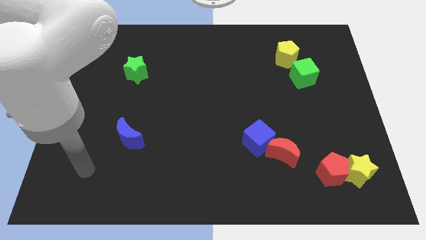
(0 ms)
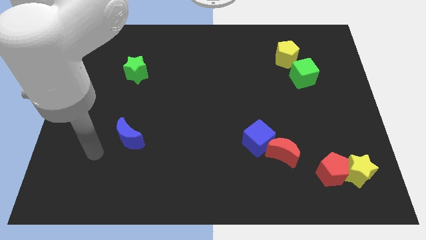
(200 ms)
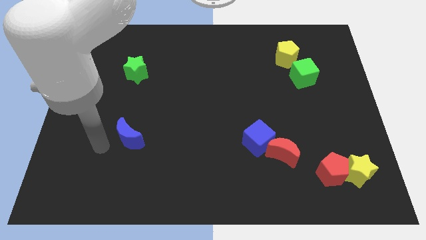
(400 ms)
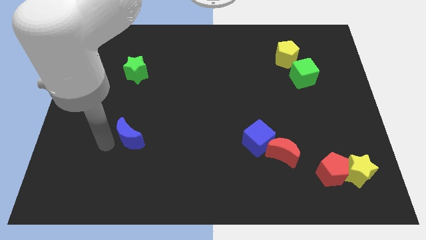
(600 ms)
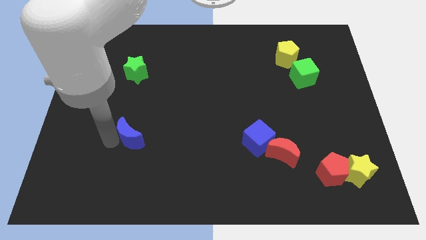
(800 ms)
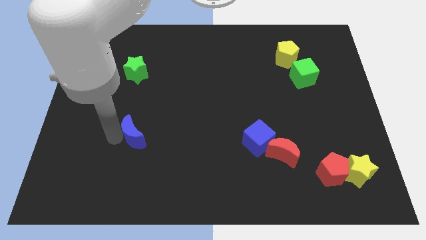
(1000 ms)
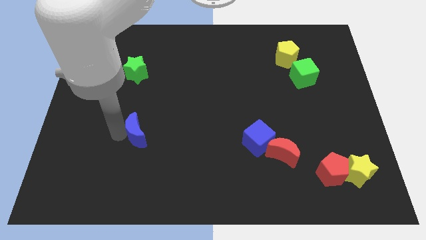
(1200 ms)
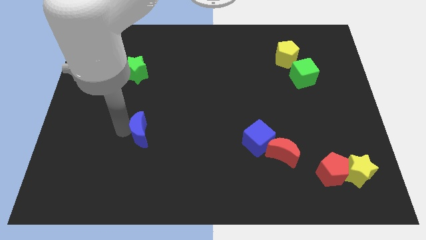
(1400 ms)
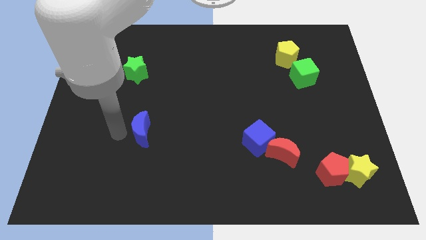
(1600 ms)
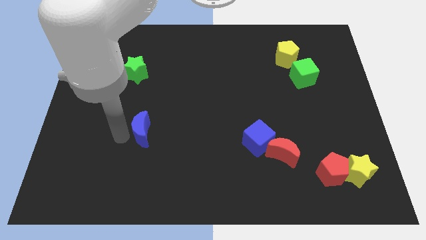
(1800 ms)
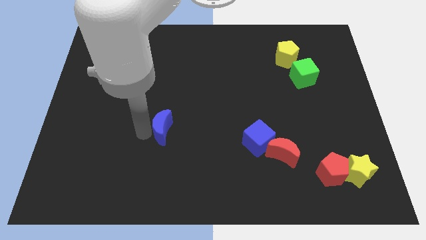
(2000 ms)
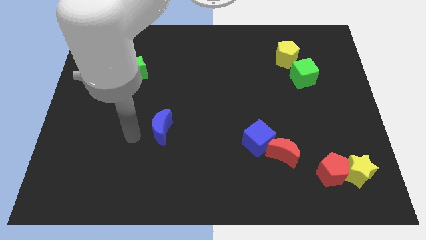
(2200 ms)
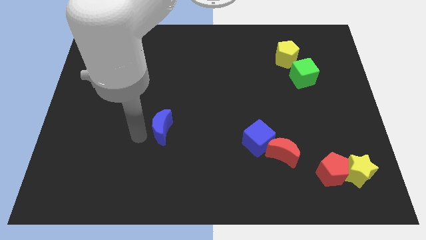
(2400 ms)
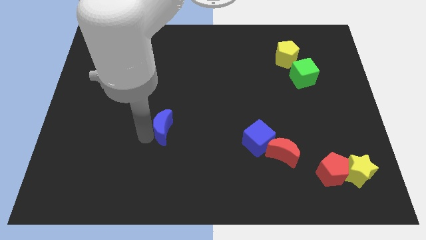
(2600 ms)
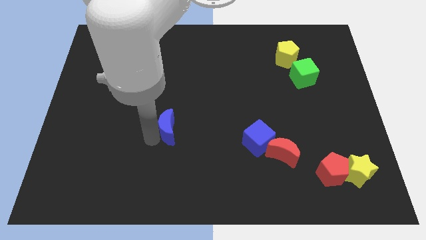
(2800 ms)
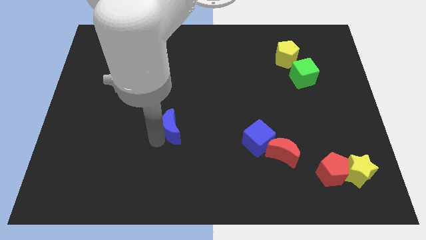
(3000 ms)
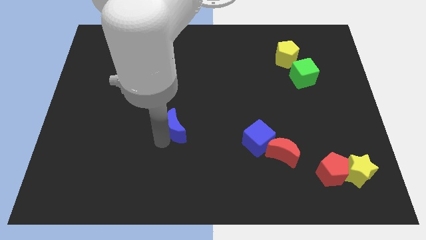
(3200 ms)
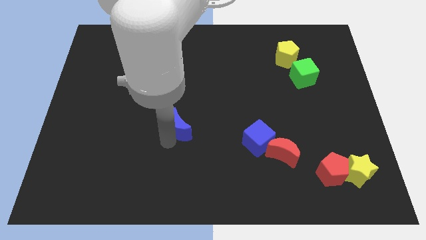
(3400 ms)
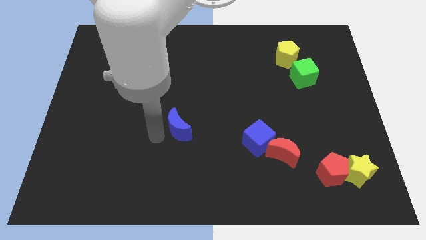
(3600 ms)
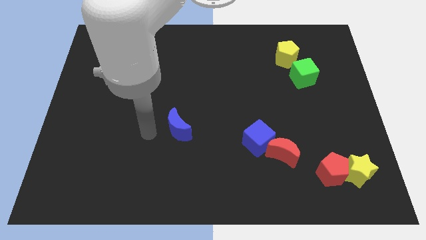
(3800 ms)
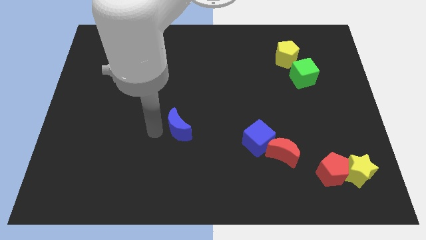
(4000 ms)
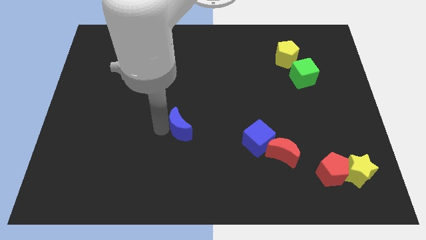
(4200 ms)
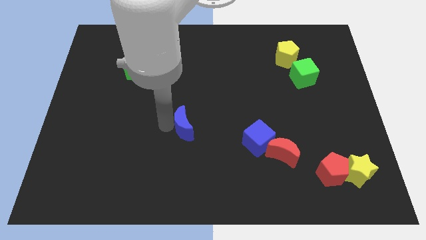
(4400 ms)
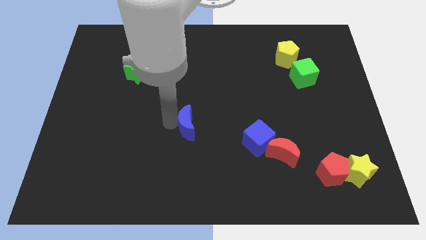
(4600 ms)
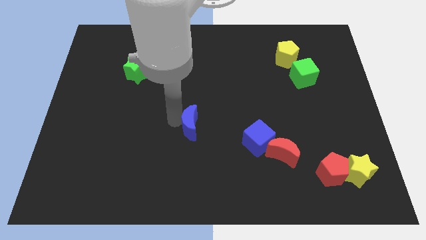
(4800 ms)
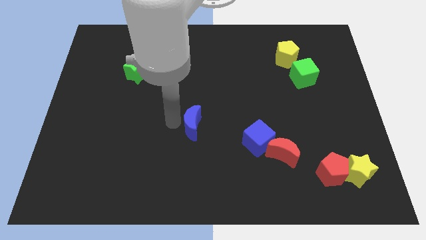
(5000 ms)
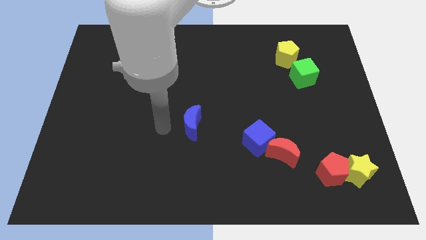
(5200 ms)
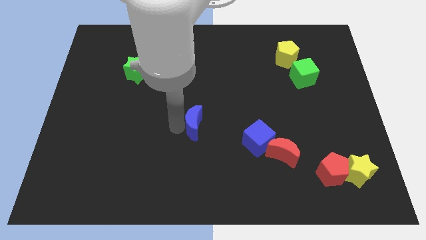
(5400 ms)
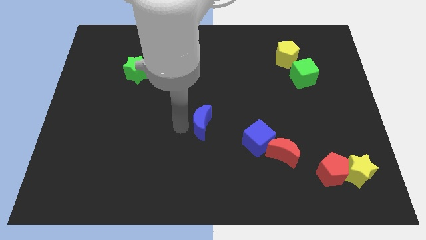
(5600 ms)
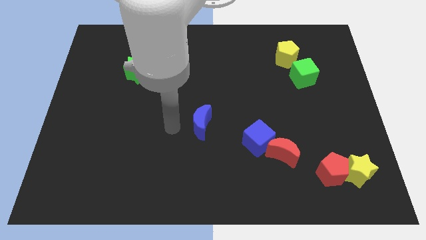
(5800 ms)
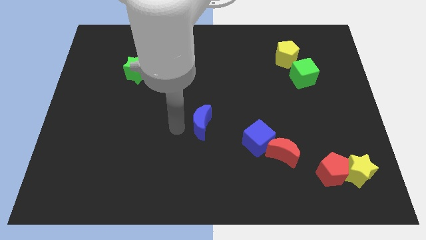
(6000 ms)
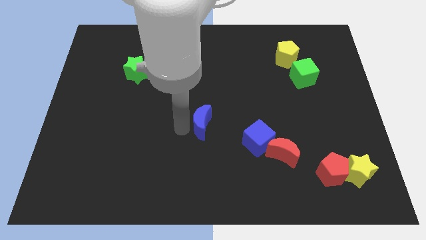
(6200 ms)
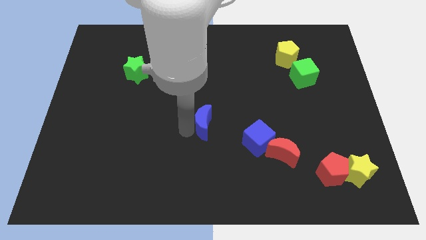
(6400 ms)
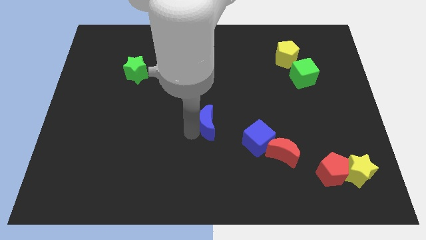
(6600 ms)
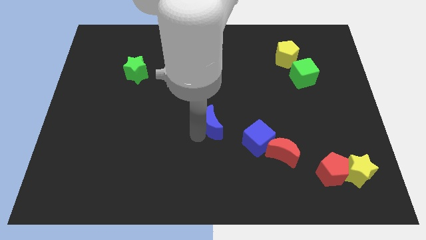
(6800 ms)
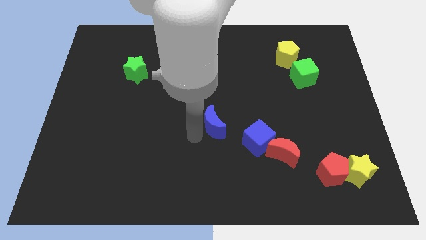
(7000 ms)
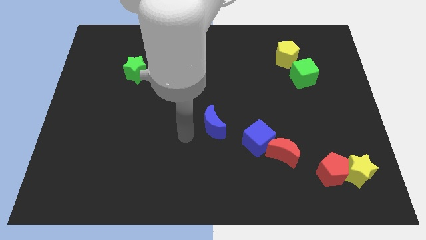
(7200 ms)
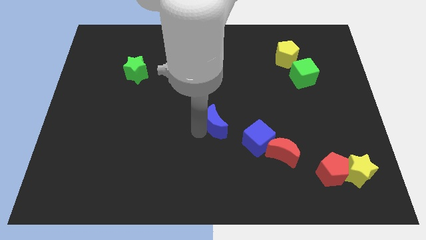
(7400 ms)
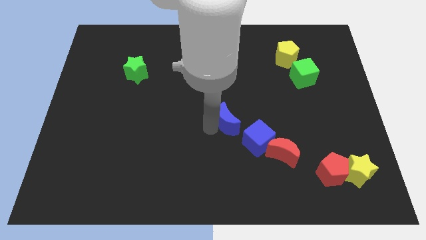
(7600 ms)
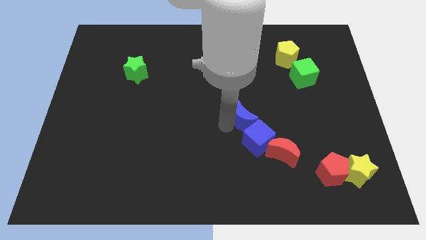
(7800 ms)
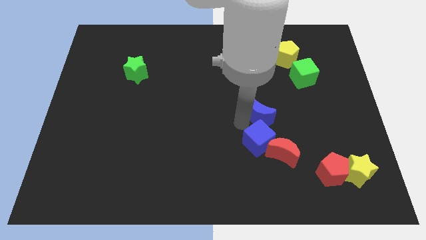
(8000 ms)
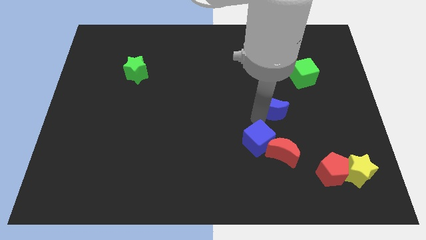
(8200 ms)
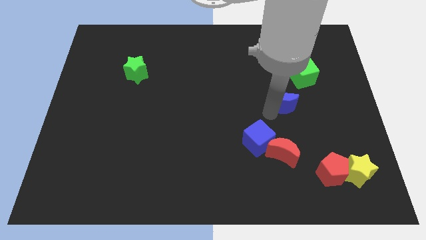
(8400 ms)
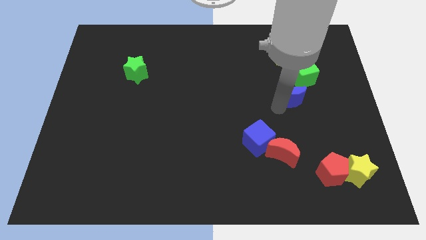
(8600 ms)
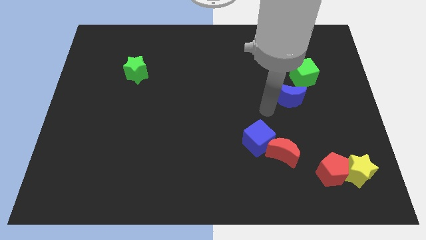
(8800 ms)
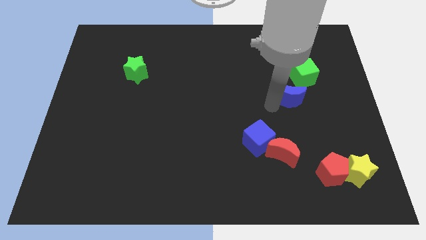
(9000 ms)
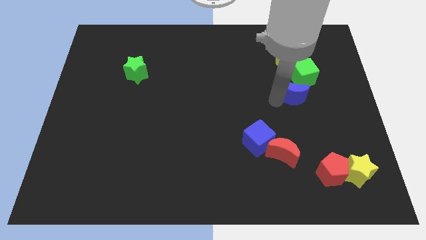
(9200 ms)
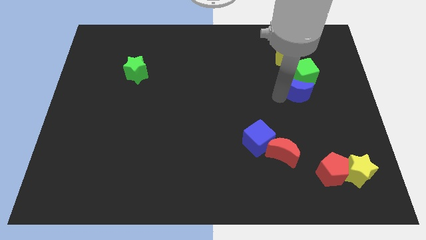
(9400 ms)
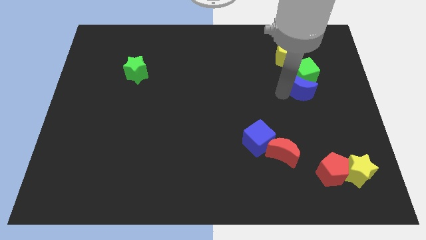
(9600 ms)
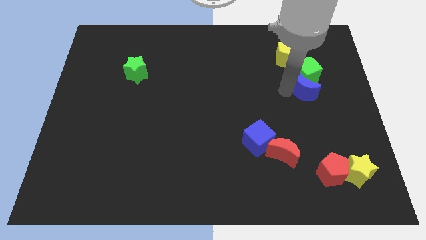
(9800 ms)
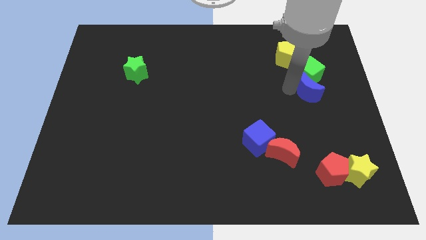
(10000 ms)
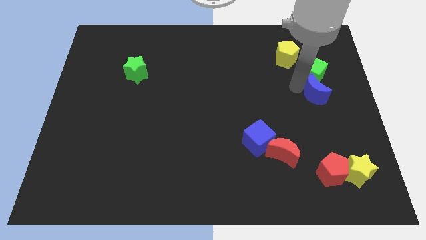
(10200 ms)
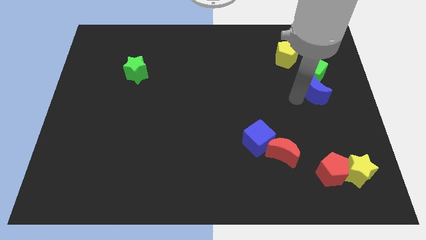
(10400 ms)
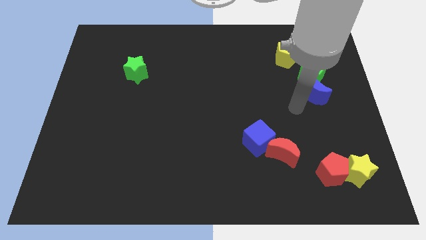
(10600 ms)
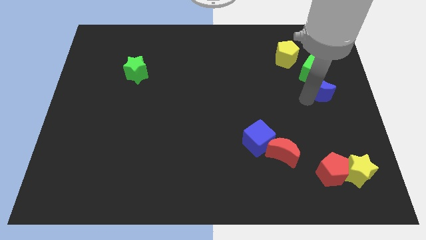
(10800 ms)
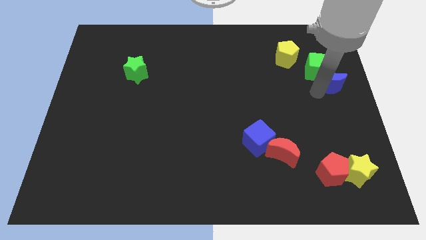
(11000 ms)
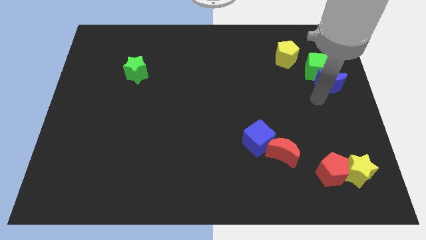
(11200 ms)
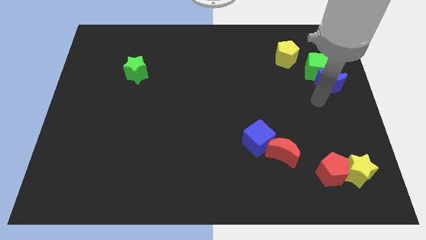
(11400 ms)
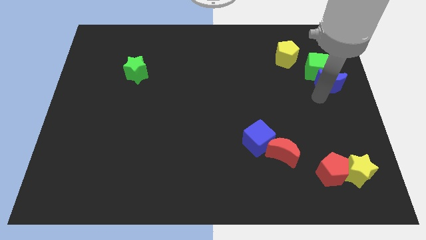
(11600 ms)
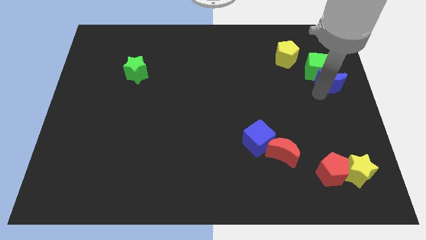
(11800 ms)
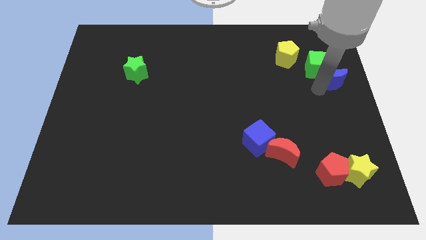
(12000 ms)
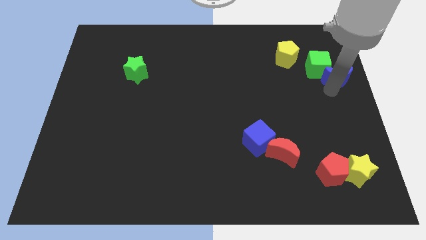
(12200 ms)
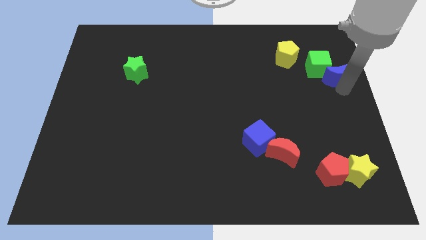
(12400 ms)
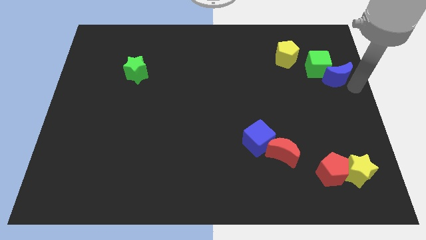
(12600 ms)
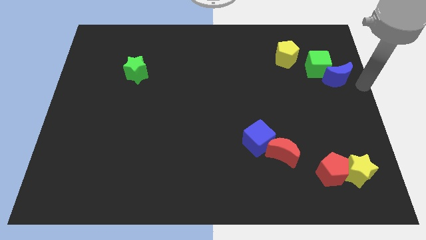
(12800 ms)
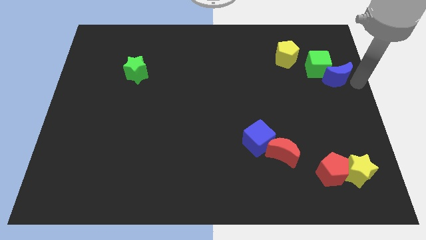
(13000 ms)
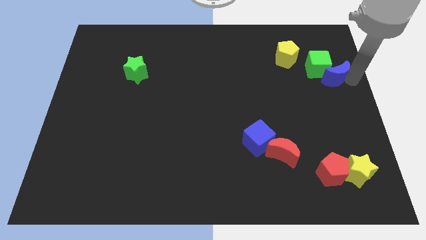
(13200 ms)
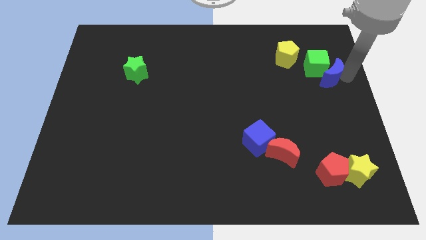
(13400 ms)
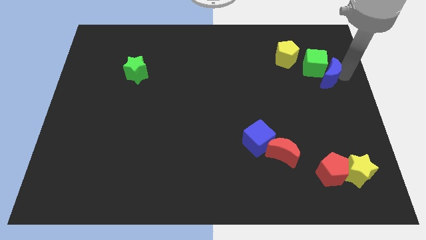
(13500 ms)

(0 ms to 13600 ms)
slide the blue moon to the bottom right side of the yellow pentagon
